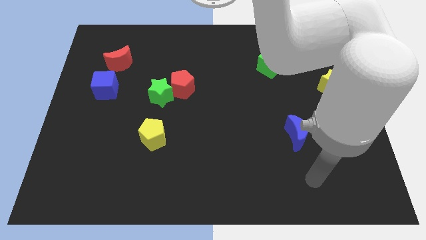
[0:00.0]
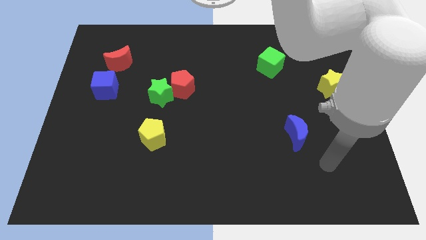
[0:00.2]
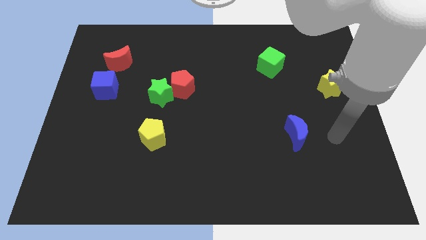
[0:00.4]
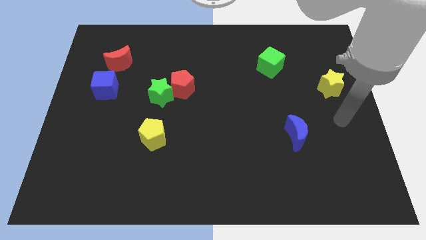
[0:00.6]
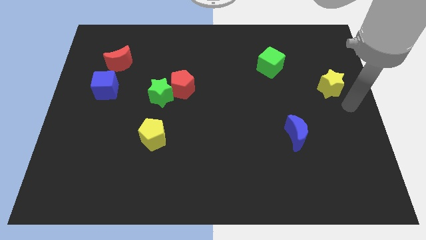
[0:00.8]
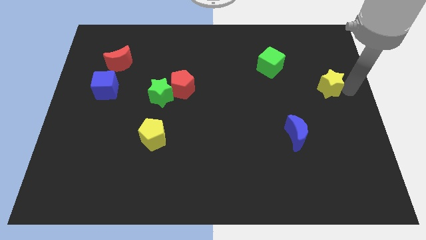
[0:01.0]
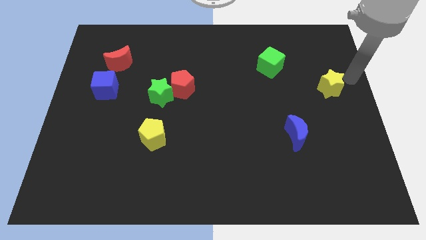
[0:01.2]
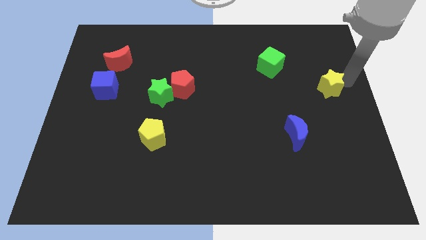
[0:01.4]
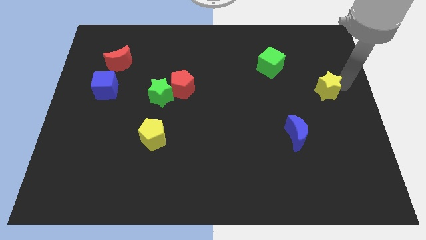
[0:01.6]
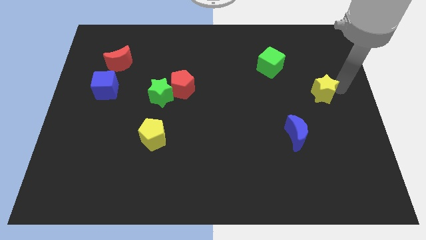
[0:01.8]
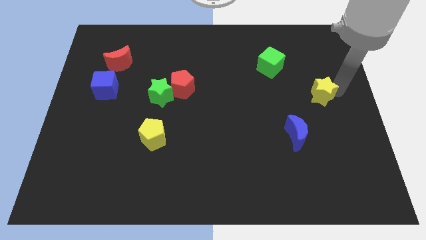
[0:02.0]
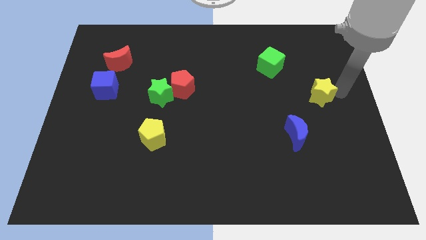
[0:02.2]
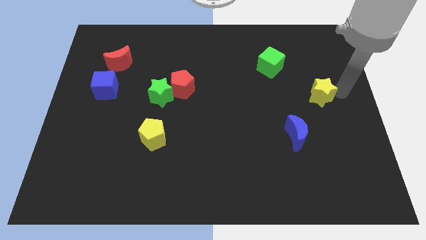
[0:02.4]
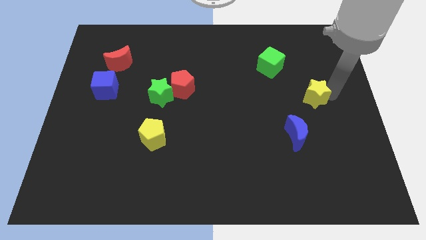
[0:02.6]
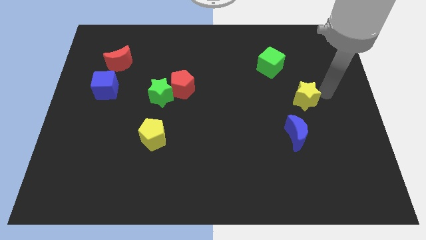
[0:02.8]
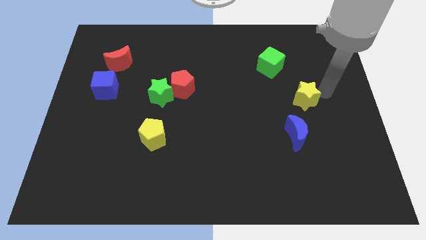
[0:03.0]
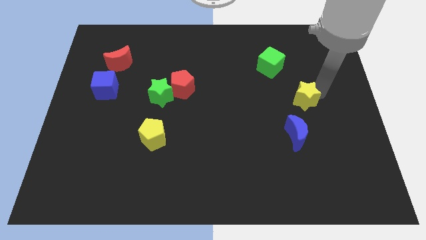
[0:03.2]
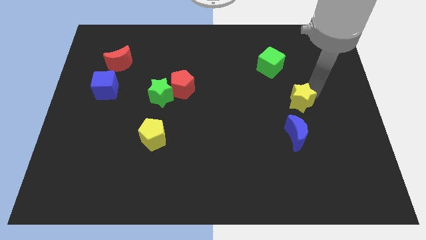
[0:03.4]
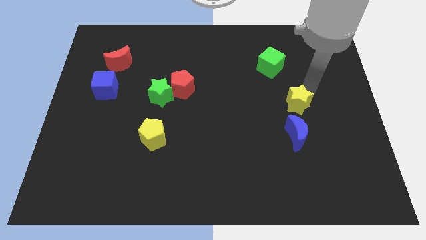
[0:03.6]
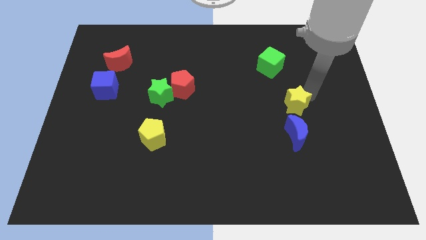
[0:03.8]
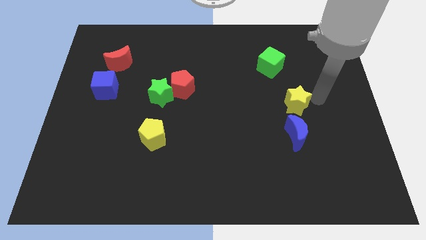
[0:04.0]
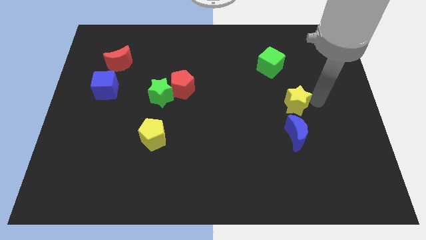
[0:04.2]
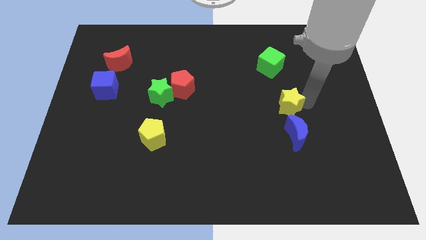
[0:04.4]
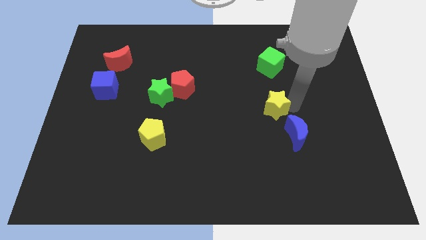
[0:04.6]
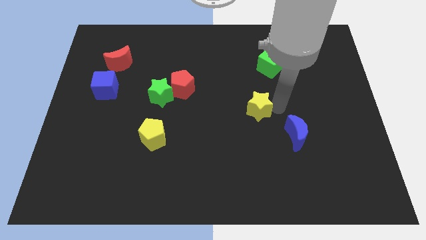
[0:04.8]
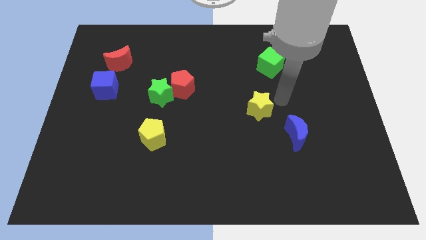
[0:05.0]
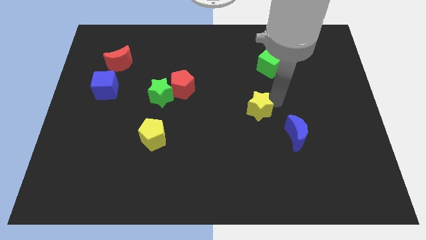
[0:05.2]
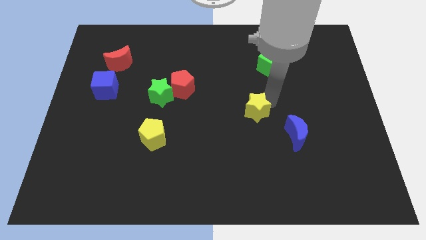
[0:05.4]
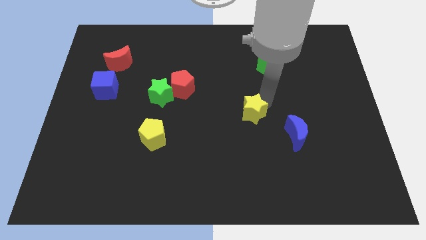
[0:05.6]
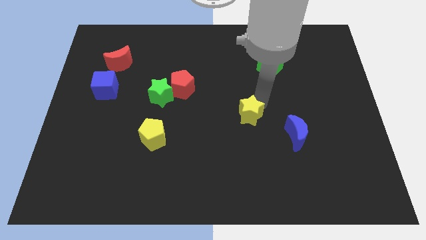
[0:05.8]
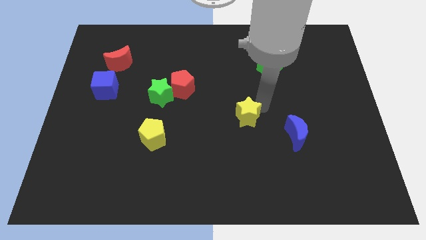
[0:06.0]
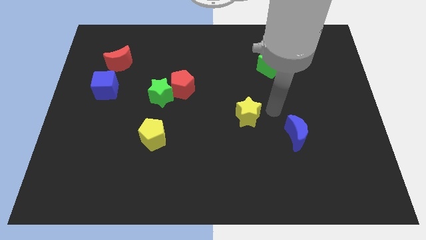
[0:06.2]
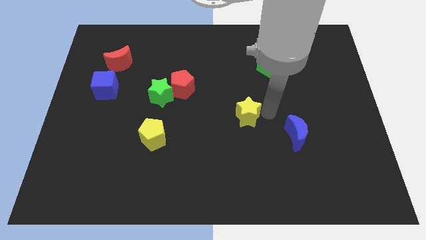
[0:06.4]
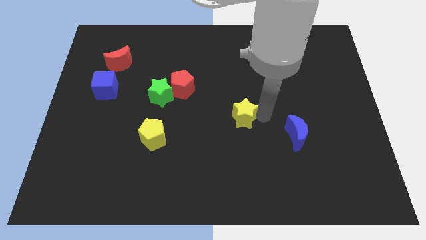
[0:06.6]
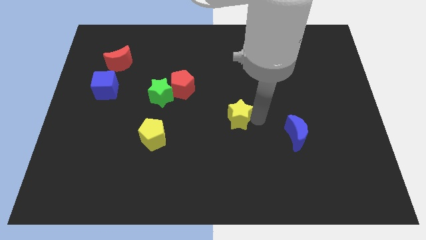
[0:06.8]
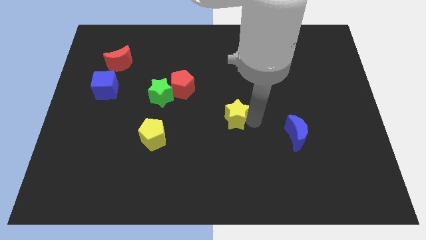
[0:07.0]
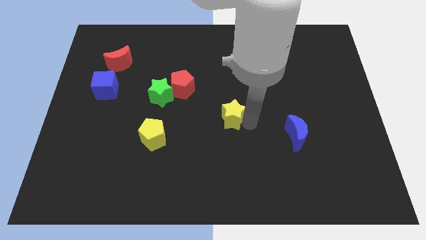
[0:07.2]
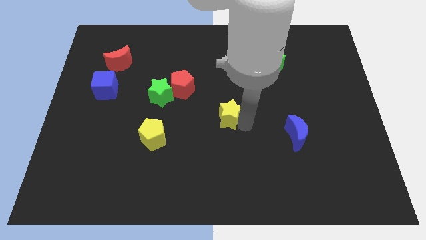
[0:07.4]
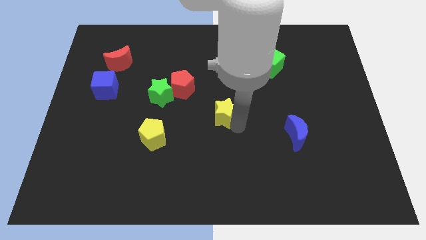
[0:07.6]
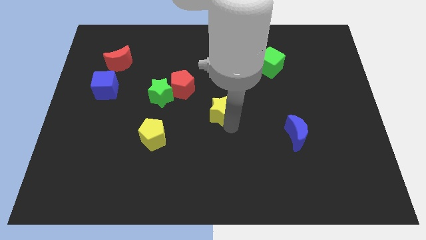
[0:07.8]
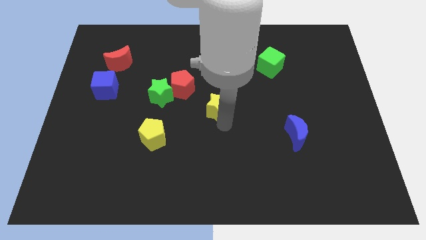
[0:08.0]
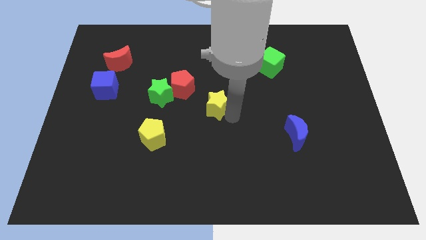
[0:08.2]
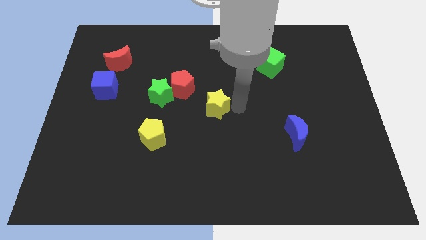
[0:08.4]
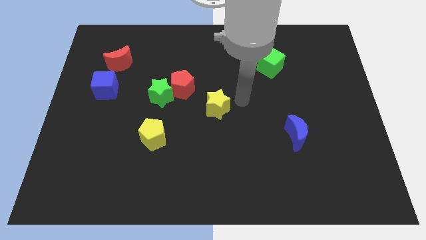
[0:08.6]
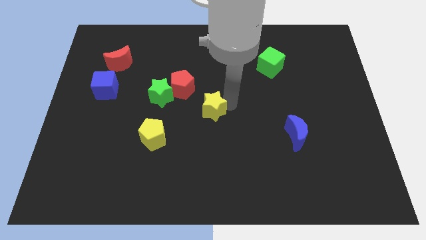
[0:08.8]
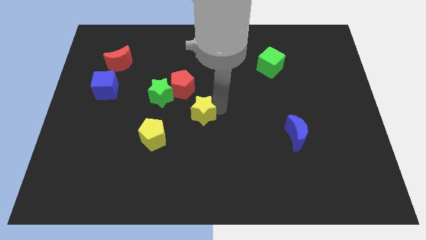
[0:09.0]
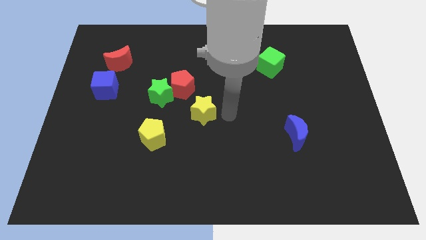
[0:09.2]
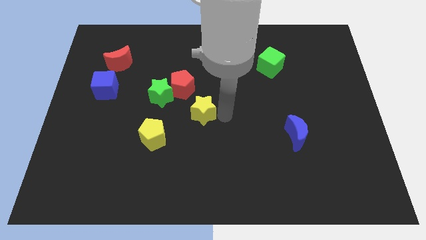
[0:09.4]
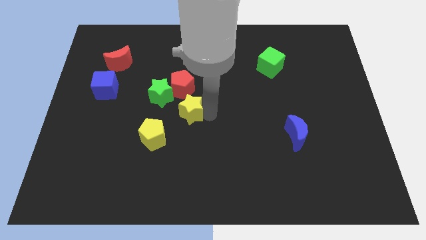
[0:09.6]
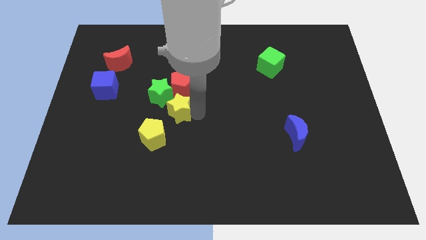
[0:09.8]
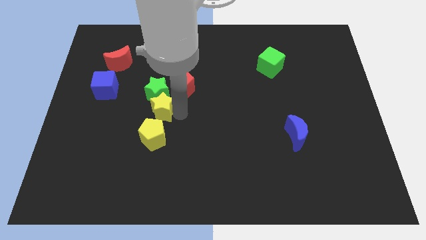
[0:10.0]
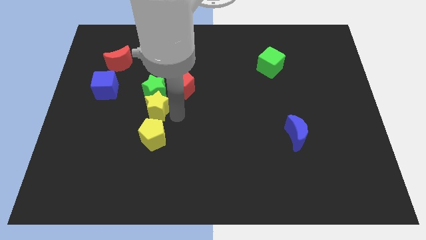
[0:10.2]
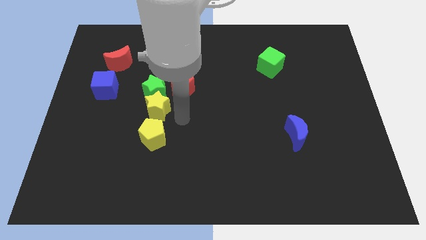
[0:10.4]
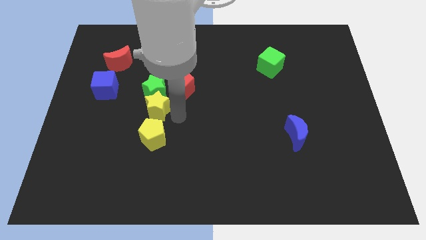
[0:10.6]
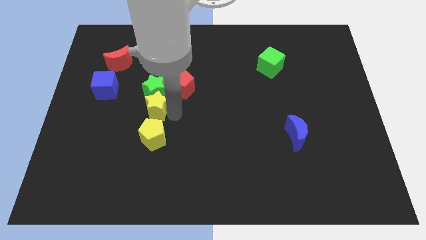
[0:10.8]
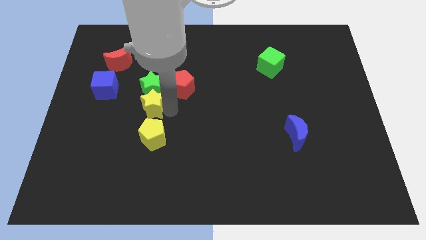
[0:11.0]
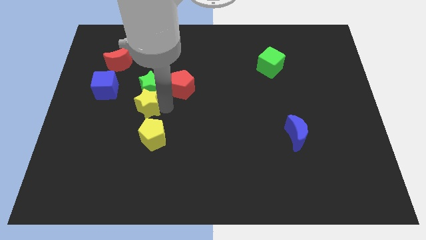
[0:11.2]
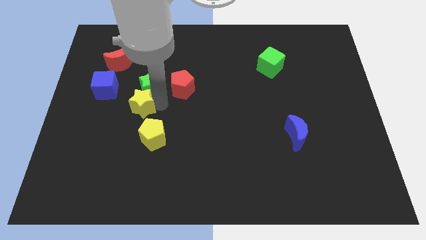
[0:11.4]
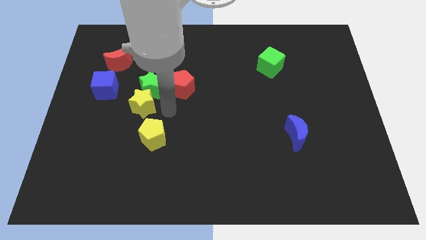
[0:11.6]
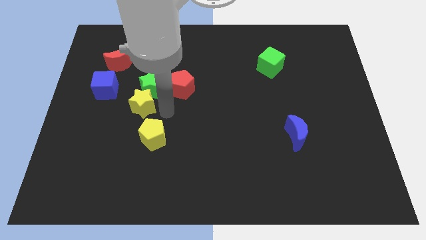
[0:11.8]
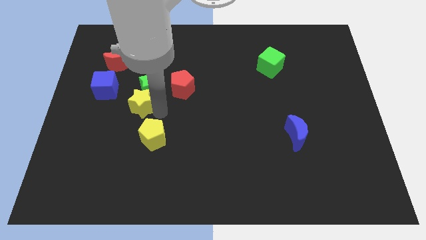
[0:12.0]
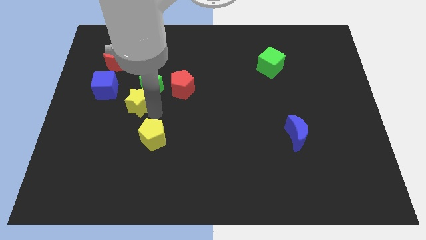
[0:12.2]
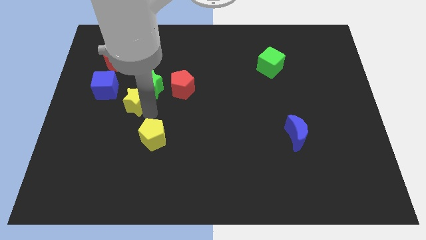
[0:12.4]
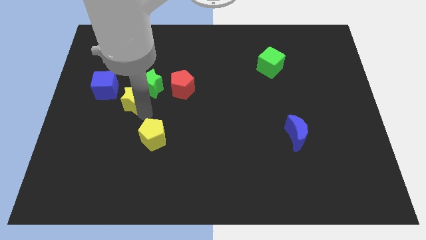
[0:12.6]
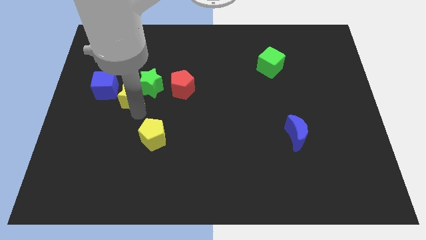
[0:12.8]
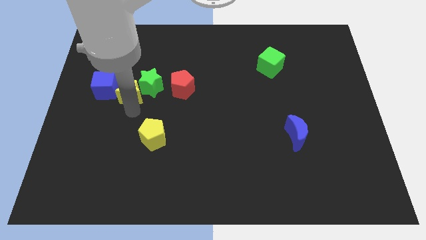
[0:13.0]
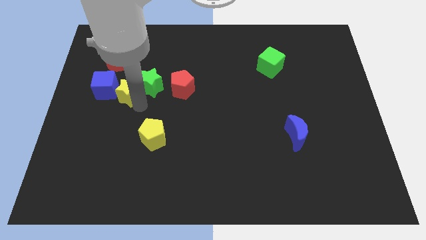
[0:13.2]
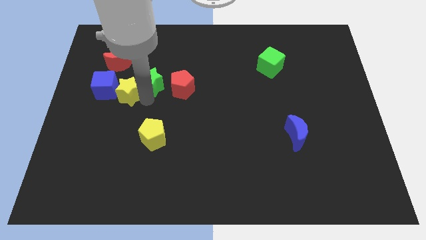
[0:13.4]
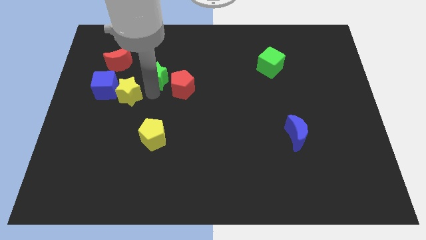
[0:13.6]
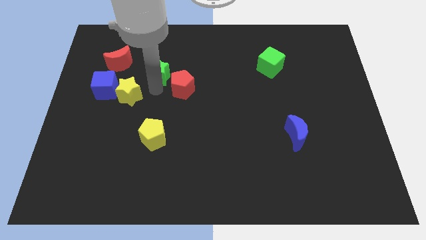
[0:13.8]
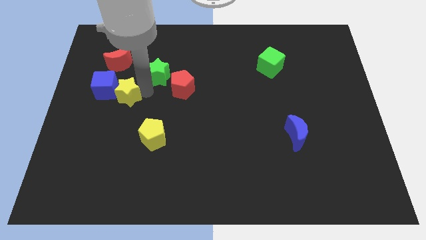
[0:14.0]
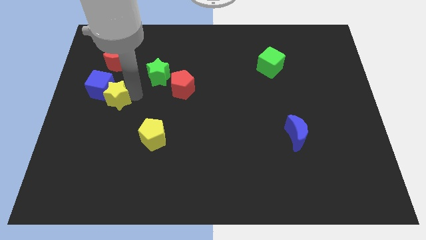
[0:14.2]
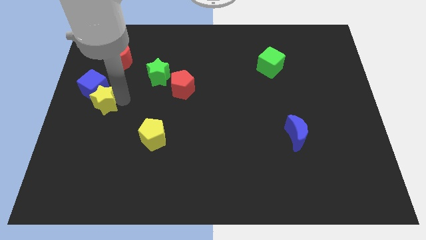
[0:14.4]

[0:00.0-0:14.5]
slide the yellow star to the left side
